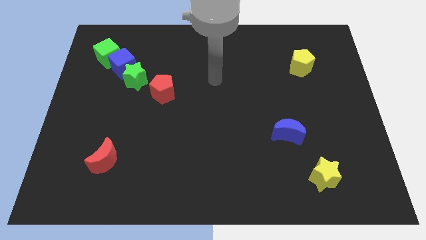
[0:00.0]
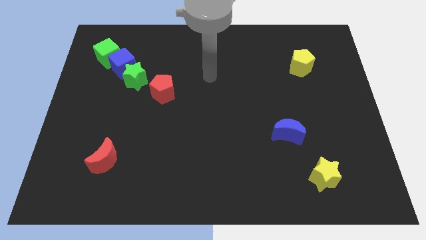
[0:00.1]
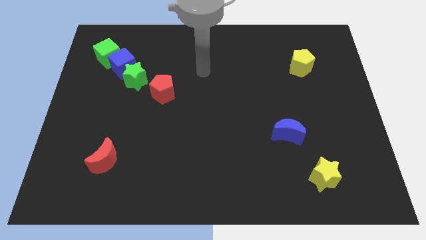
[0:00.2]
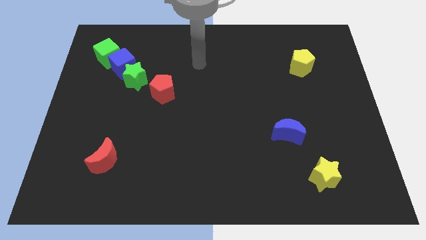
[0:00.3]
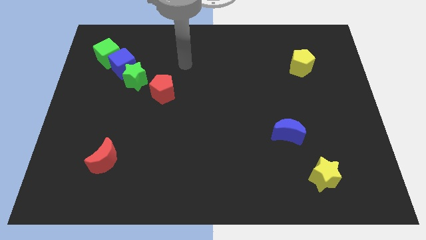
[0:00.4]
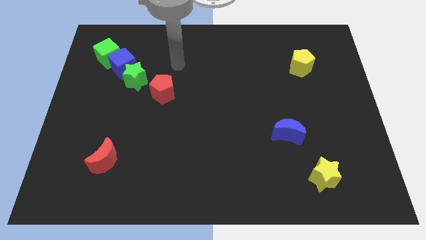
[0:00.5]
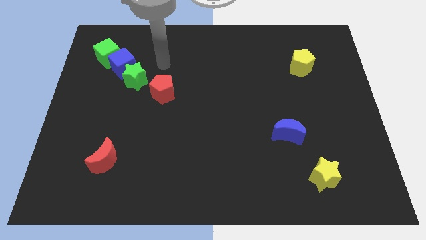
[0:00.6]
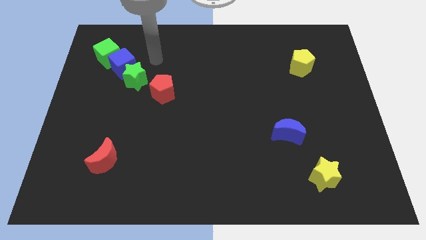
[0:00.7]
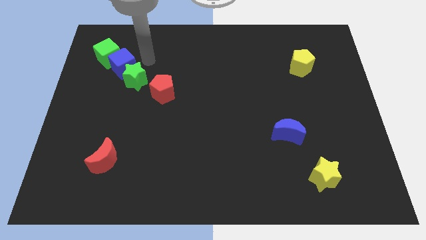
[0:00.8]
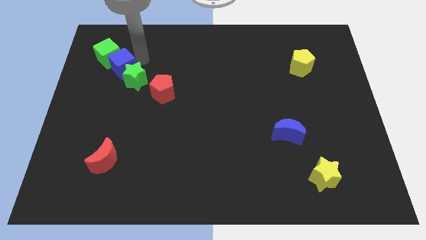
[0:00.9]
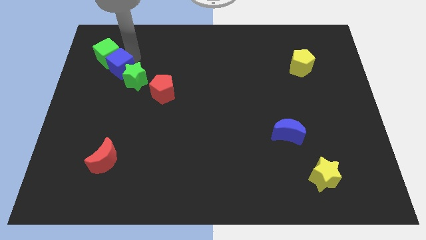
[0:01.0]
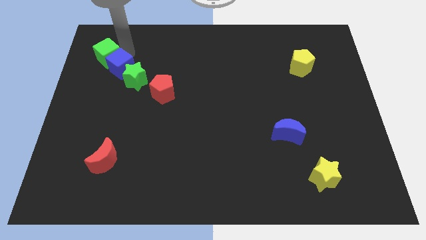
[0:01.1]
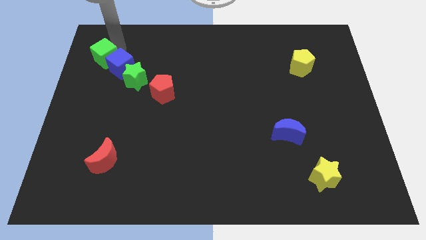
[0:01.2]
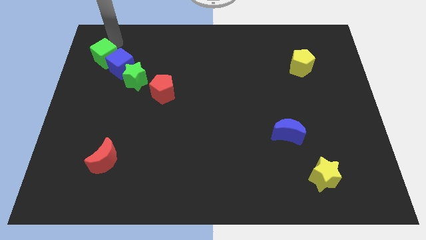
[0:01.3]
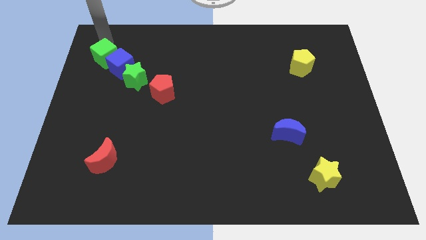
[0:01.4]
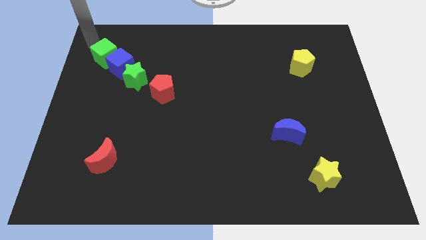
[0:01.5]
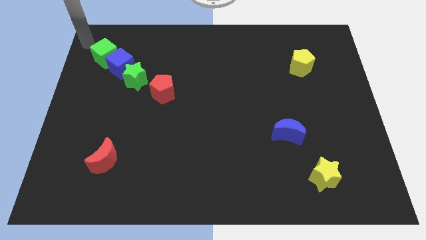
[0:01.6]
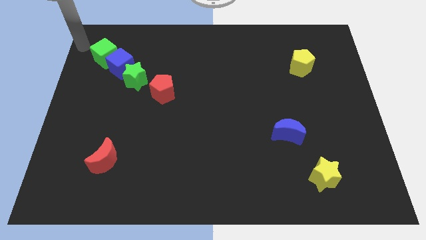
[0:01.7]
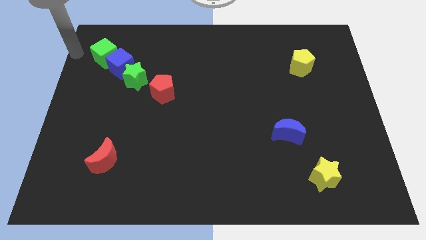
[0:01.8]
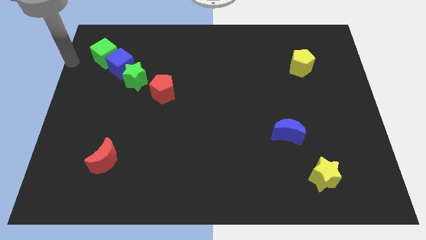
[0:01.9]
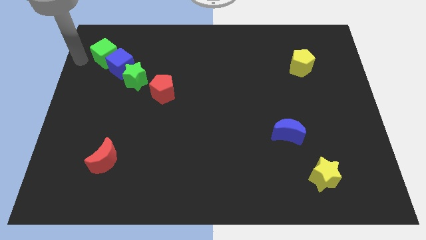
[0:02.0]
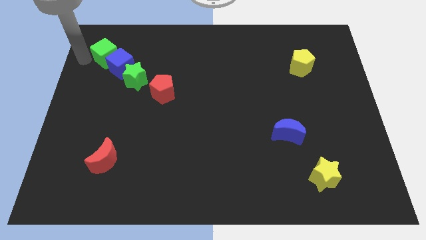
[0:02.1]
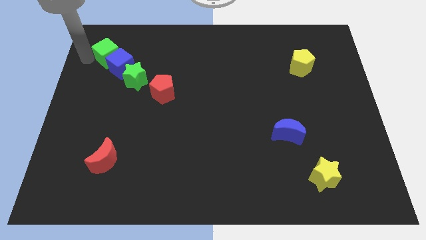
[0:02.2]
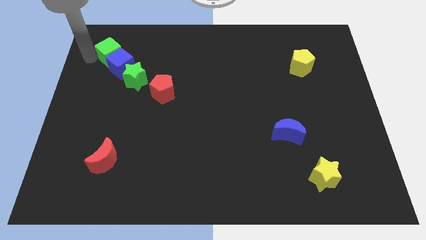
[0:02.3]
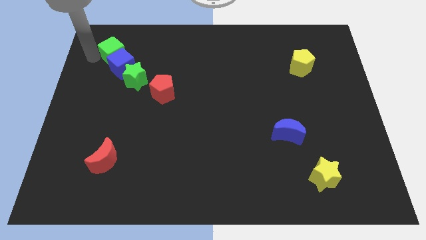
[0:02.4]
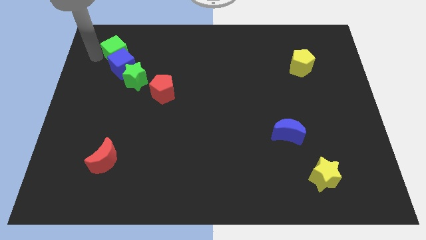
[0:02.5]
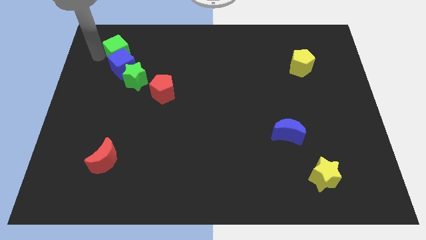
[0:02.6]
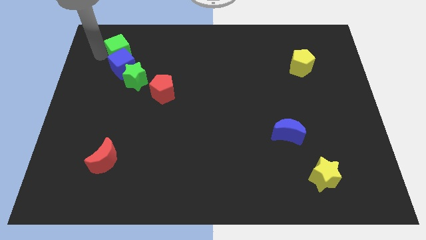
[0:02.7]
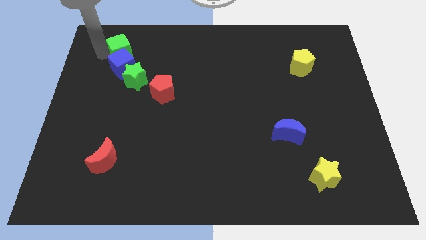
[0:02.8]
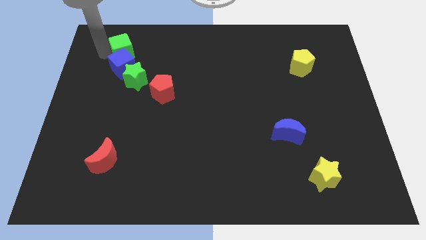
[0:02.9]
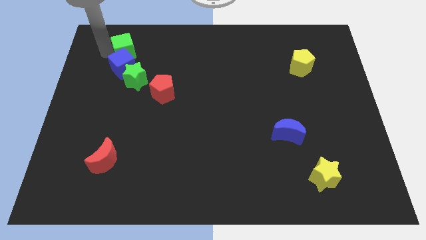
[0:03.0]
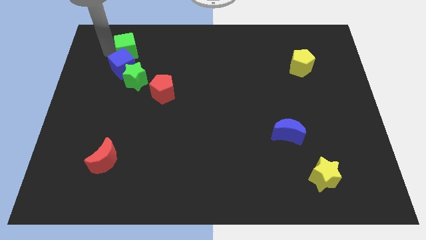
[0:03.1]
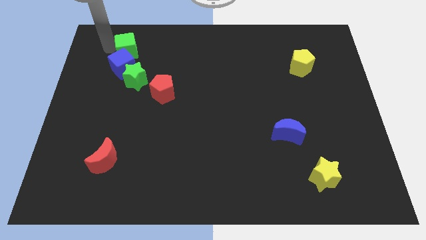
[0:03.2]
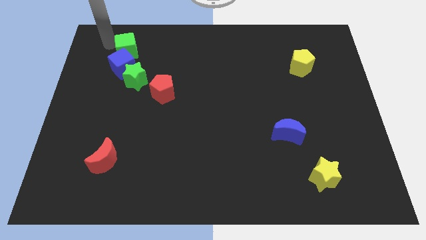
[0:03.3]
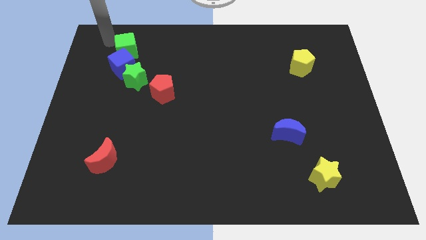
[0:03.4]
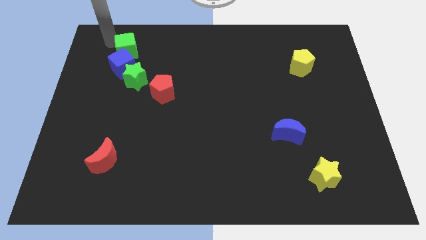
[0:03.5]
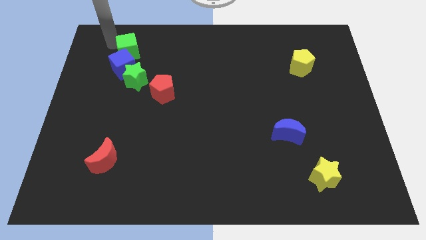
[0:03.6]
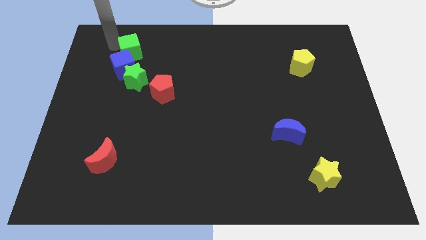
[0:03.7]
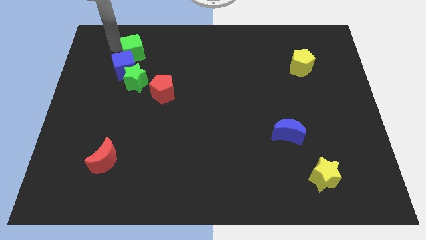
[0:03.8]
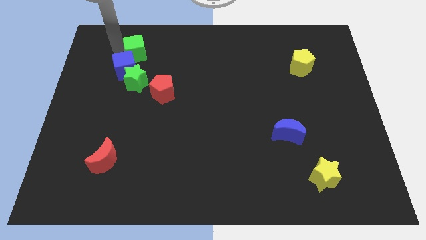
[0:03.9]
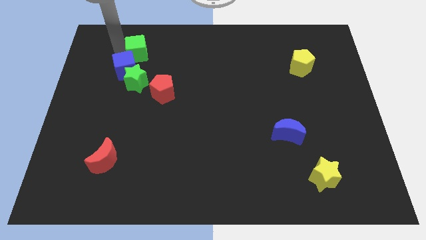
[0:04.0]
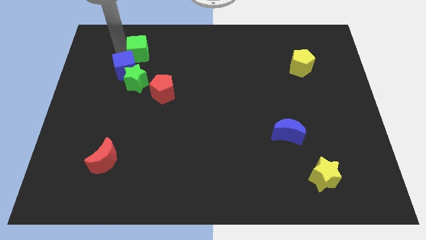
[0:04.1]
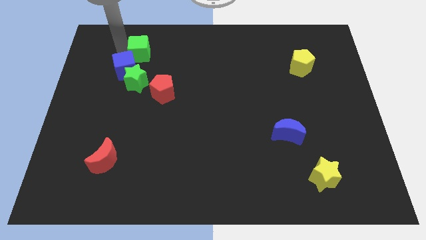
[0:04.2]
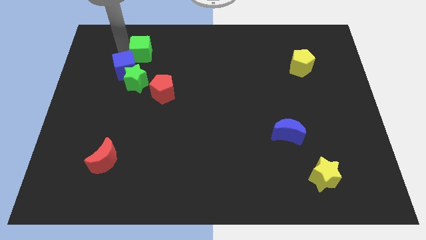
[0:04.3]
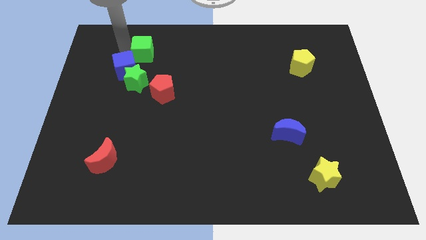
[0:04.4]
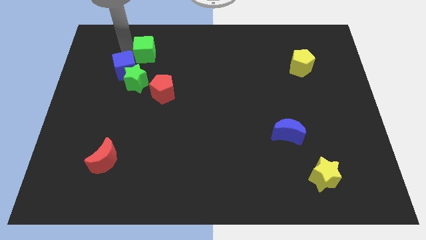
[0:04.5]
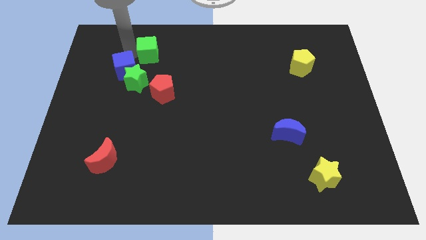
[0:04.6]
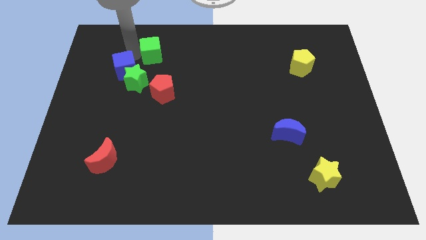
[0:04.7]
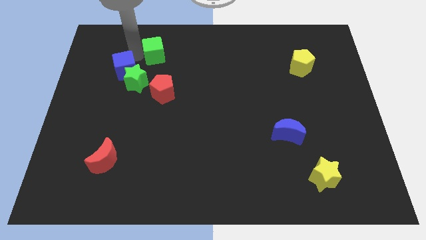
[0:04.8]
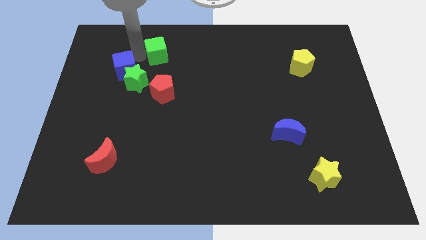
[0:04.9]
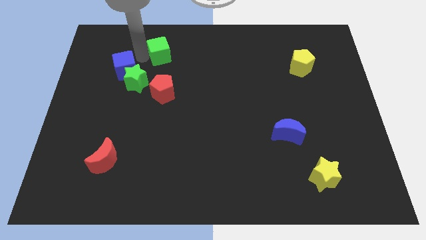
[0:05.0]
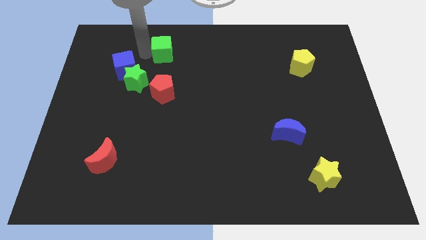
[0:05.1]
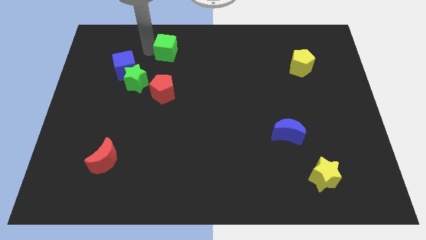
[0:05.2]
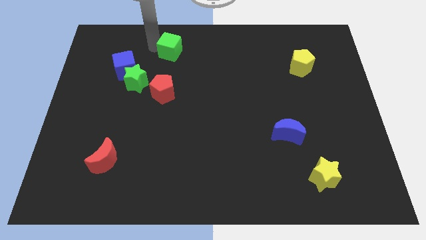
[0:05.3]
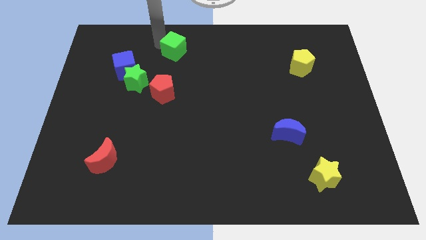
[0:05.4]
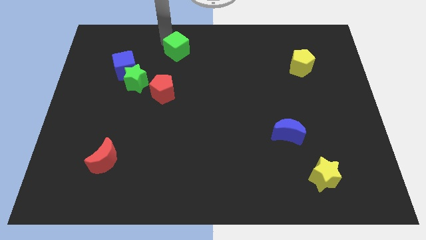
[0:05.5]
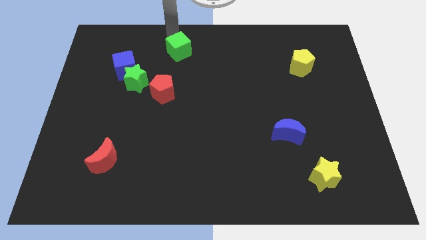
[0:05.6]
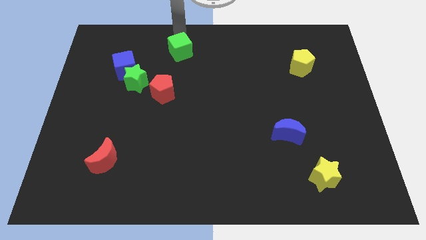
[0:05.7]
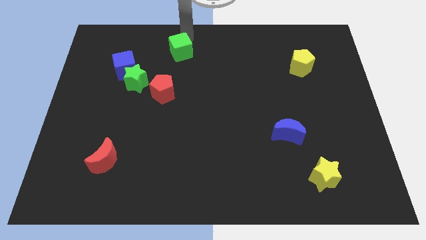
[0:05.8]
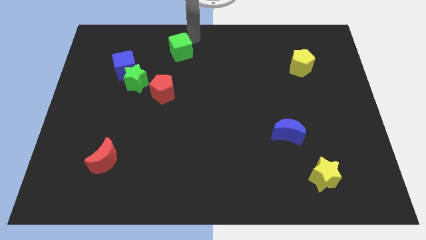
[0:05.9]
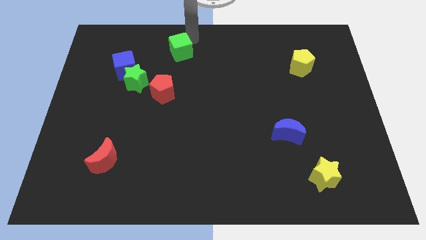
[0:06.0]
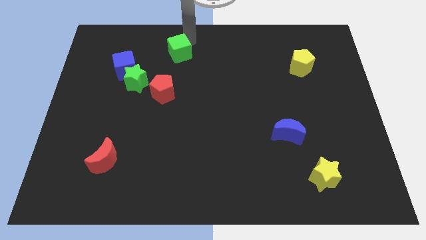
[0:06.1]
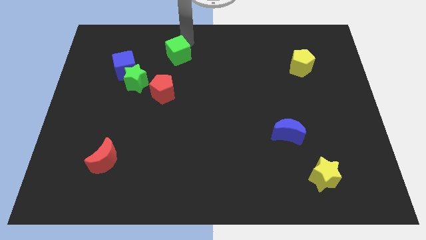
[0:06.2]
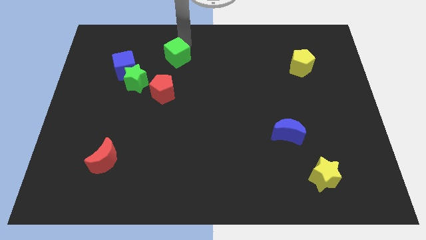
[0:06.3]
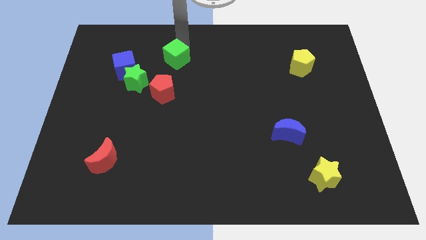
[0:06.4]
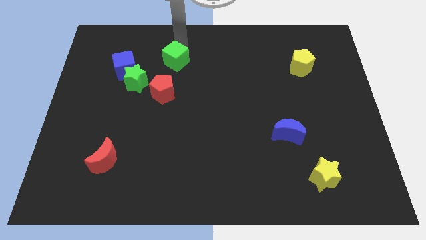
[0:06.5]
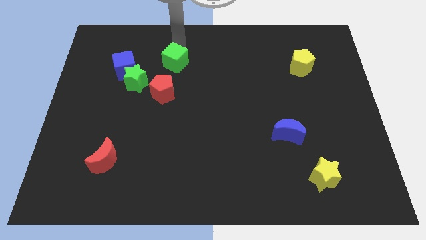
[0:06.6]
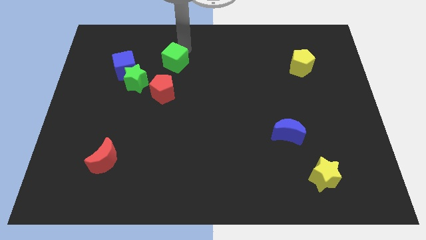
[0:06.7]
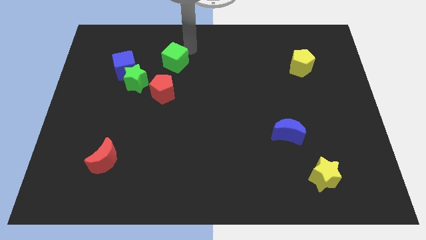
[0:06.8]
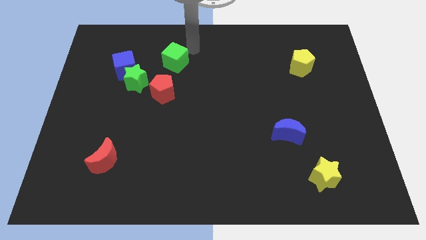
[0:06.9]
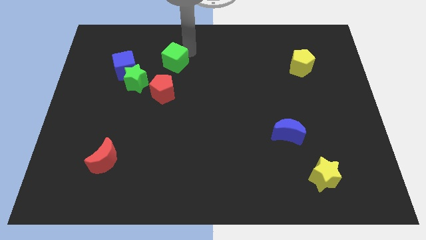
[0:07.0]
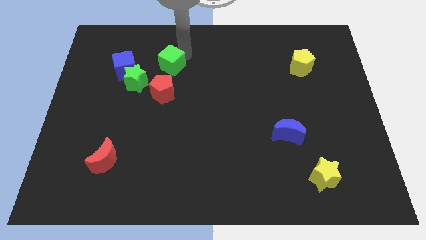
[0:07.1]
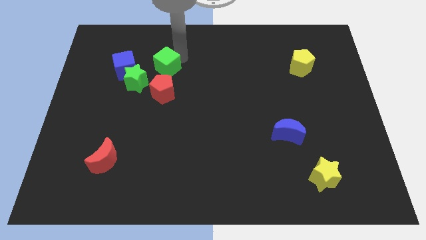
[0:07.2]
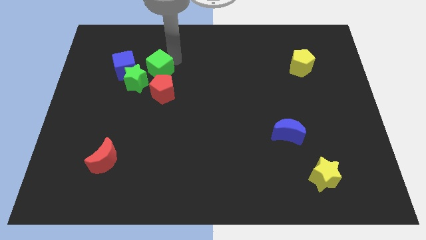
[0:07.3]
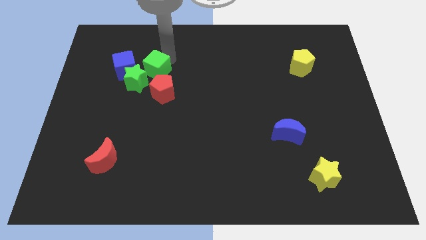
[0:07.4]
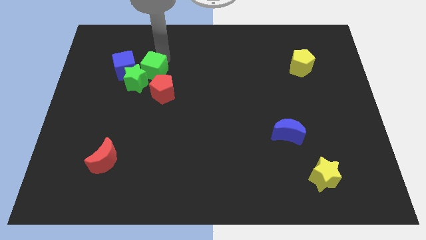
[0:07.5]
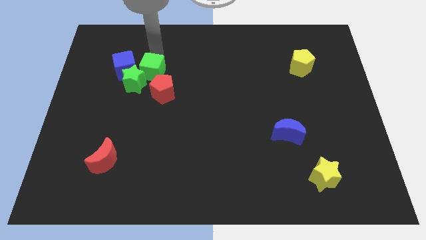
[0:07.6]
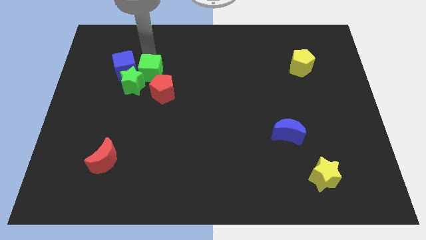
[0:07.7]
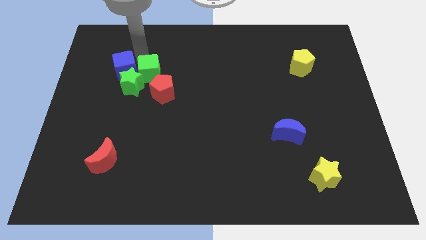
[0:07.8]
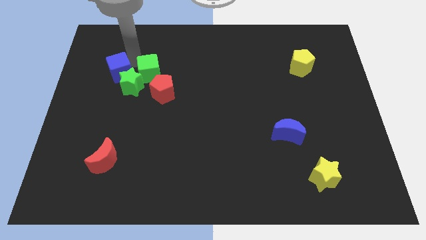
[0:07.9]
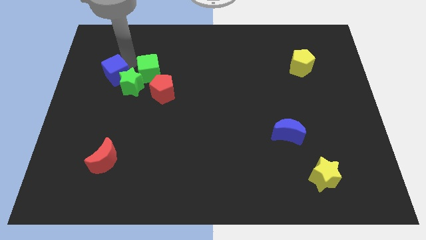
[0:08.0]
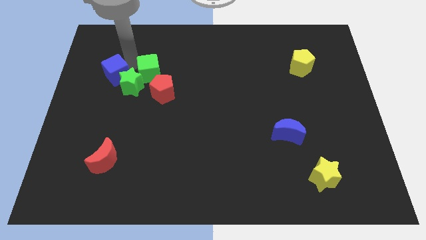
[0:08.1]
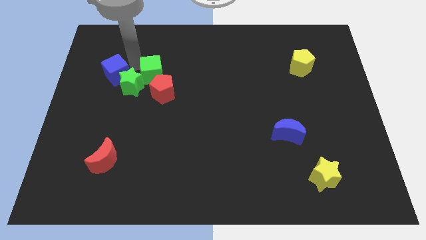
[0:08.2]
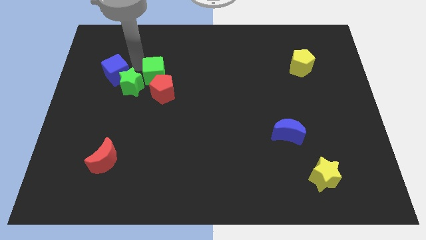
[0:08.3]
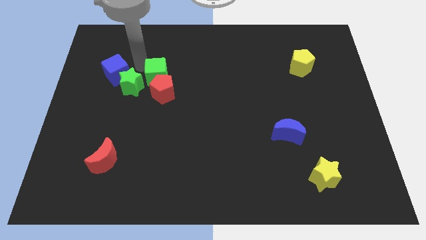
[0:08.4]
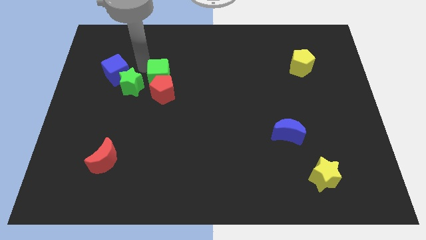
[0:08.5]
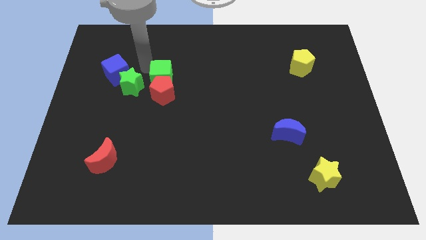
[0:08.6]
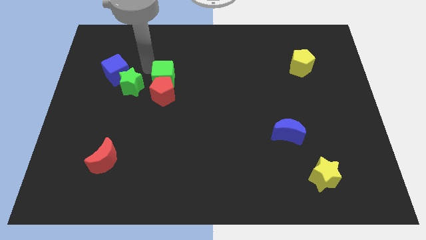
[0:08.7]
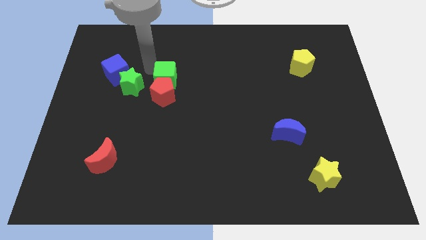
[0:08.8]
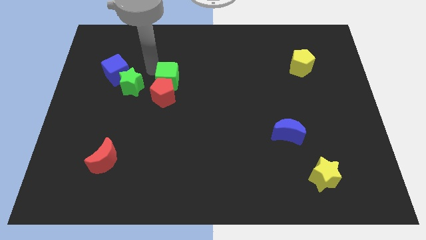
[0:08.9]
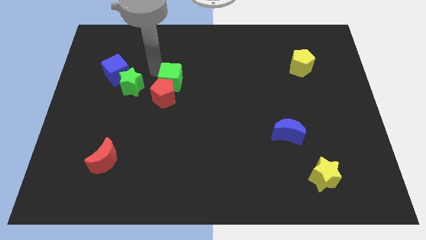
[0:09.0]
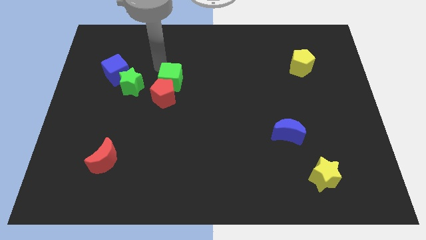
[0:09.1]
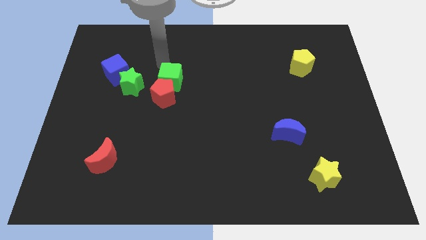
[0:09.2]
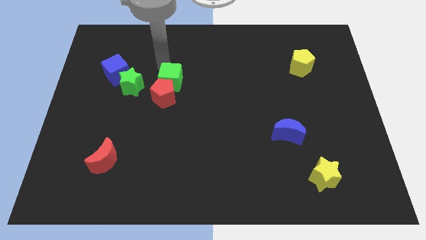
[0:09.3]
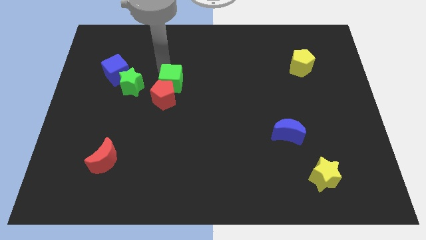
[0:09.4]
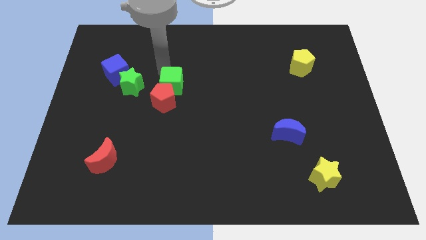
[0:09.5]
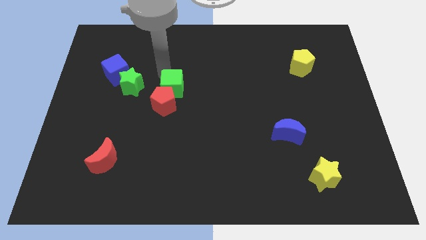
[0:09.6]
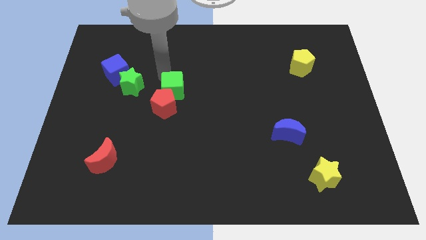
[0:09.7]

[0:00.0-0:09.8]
push the green cube downwards and right
